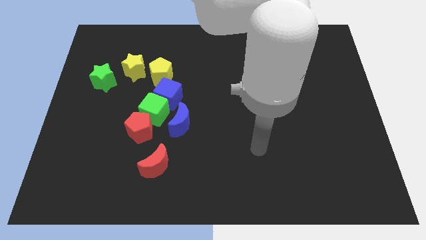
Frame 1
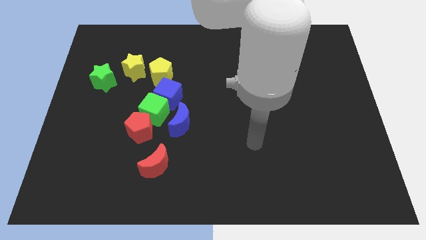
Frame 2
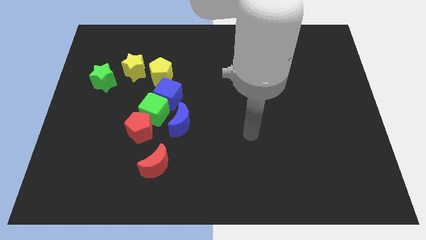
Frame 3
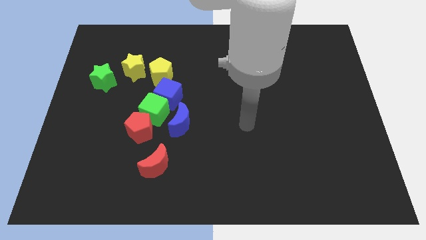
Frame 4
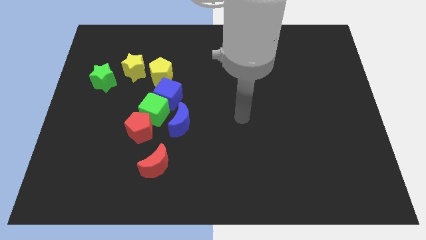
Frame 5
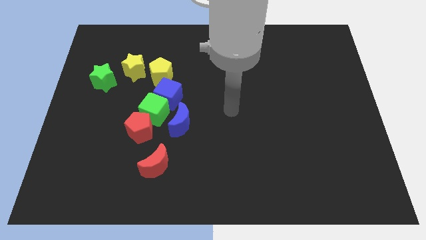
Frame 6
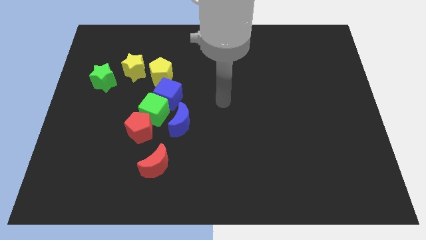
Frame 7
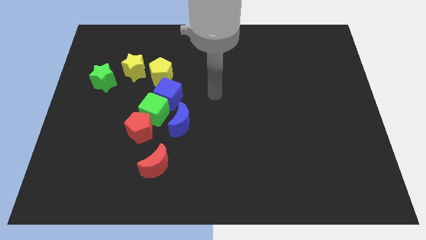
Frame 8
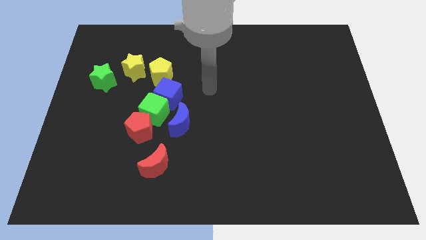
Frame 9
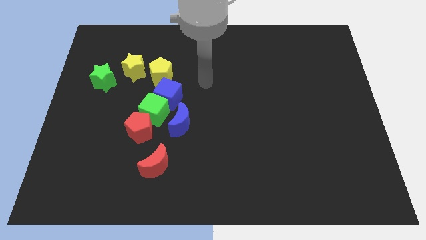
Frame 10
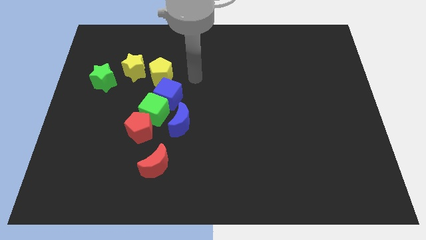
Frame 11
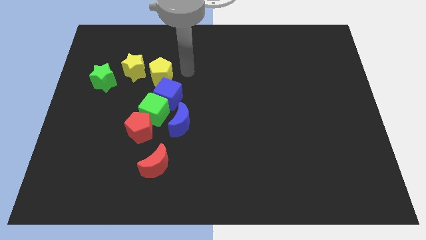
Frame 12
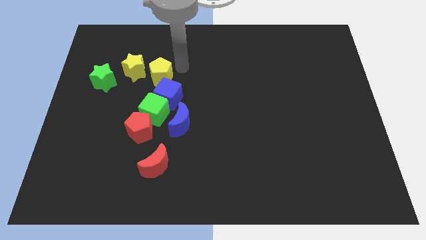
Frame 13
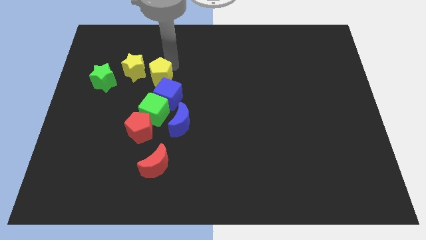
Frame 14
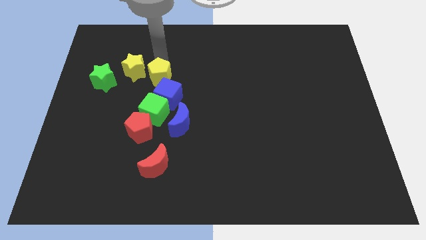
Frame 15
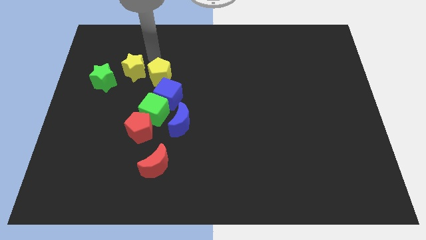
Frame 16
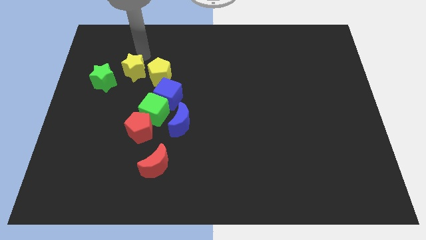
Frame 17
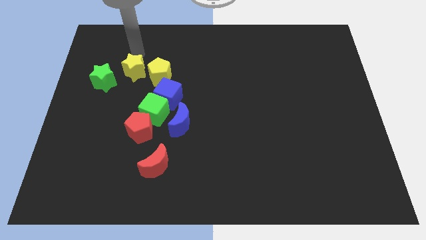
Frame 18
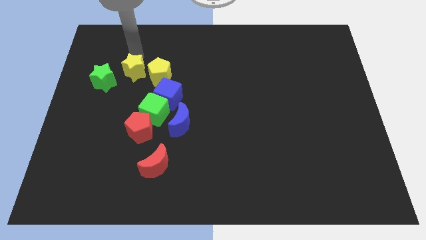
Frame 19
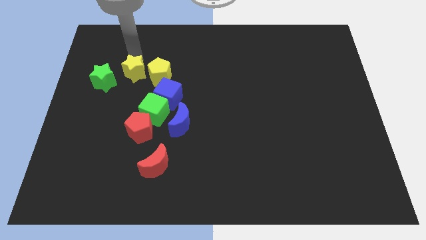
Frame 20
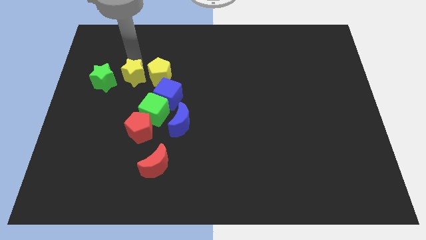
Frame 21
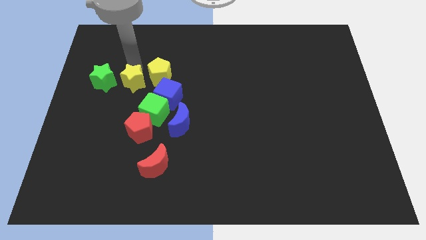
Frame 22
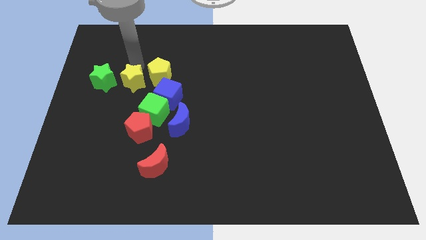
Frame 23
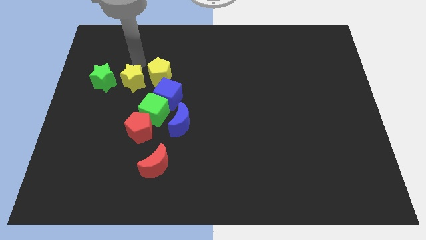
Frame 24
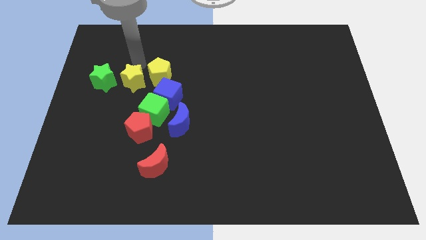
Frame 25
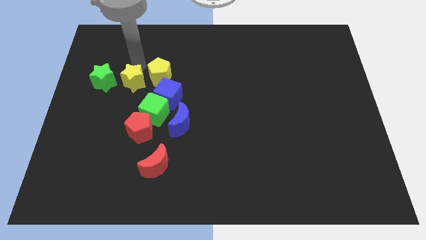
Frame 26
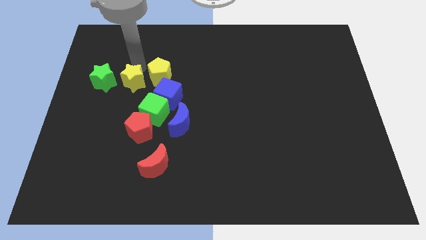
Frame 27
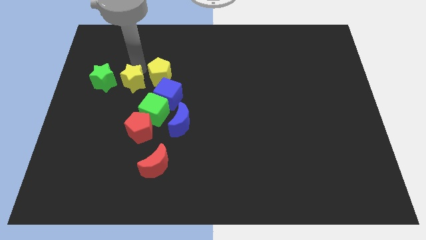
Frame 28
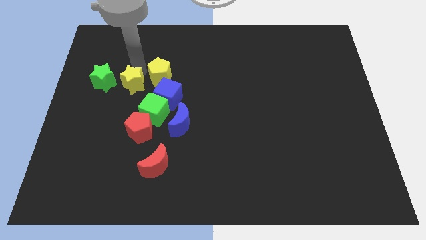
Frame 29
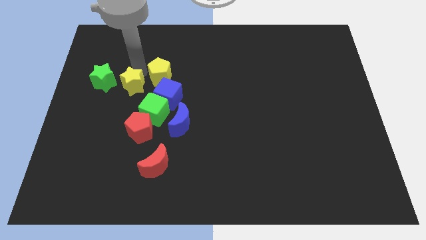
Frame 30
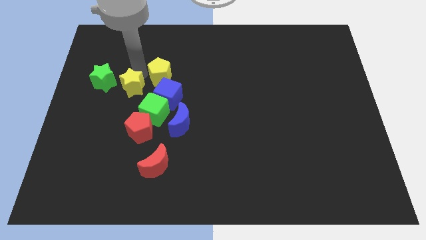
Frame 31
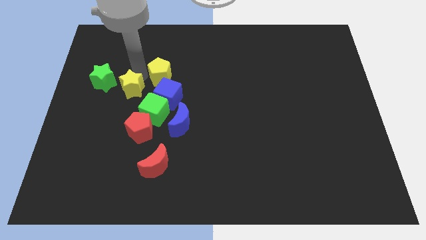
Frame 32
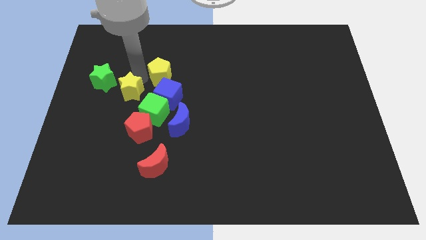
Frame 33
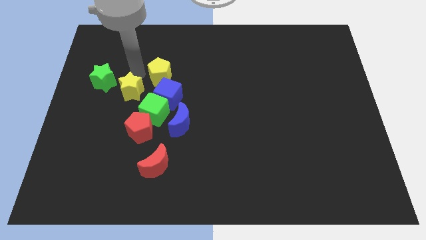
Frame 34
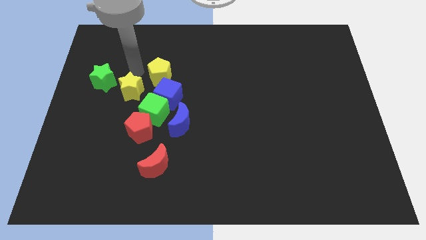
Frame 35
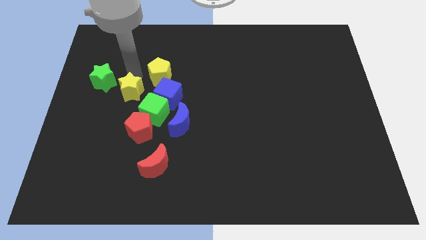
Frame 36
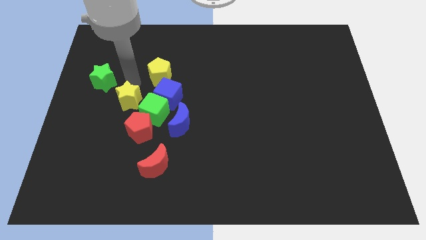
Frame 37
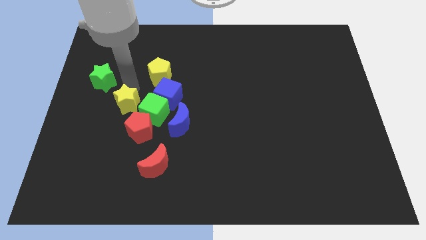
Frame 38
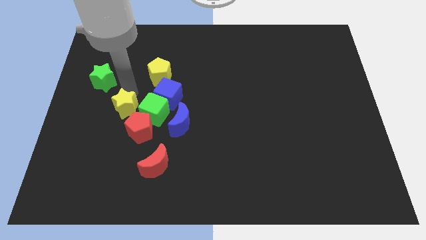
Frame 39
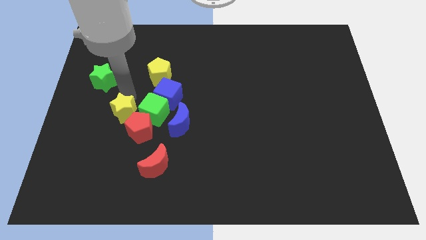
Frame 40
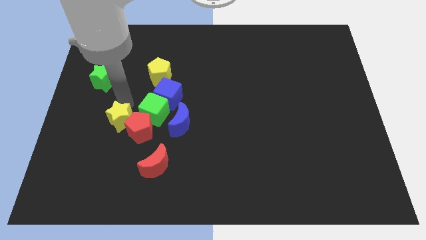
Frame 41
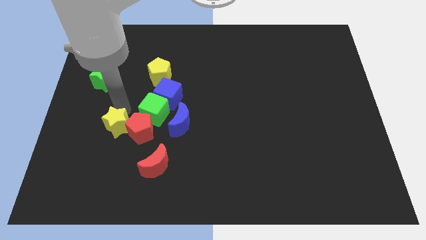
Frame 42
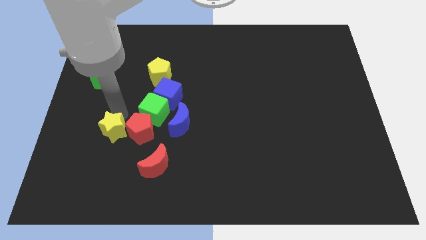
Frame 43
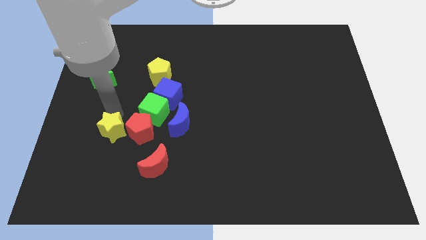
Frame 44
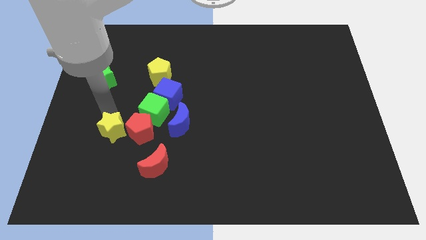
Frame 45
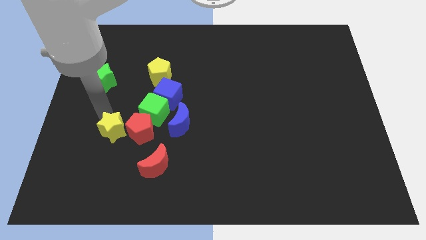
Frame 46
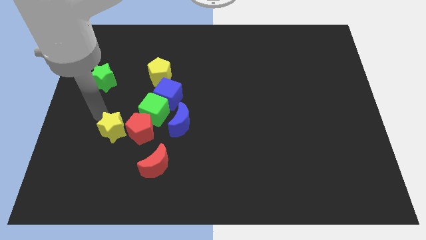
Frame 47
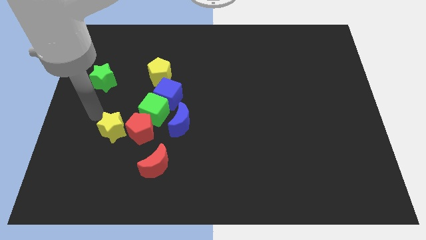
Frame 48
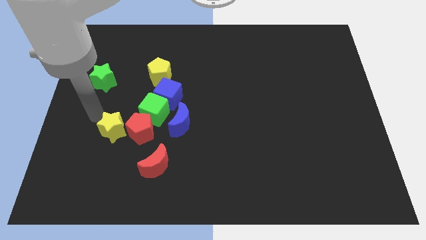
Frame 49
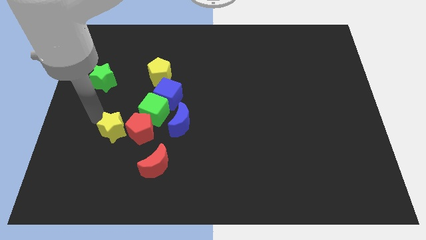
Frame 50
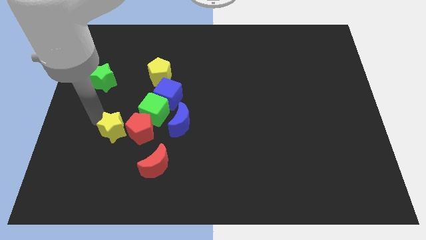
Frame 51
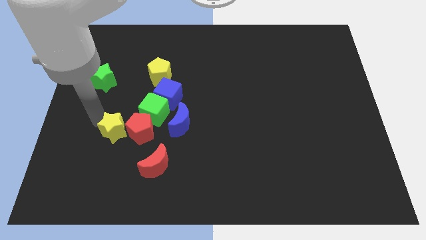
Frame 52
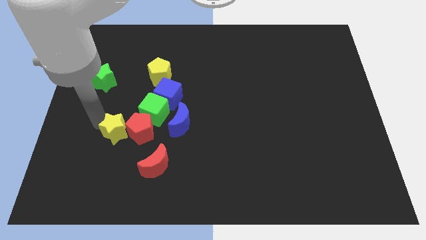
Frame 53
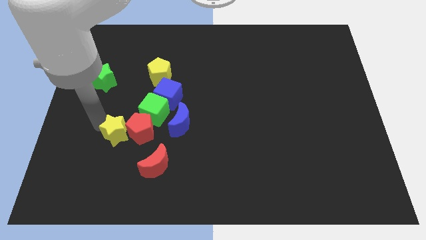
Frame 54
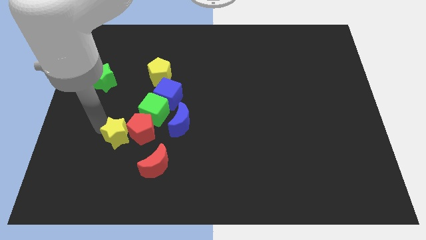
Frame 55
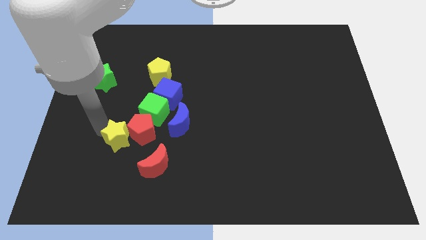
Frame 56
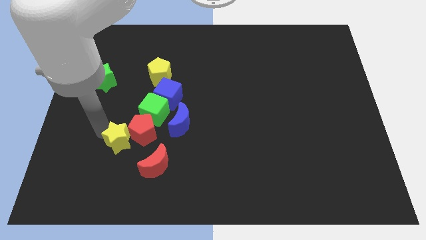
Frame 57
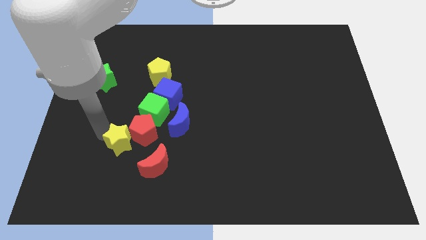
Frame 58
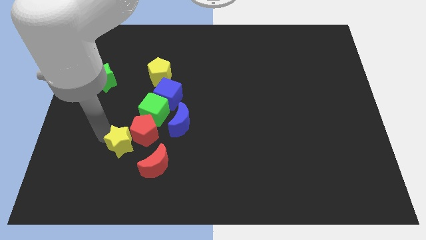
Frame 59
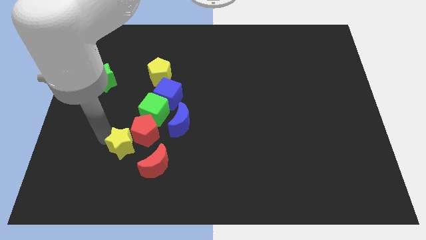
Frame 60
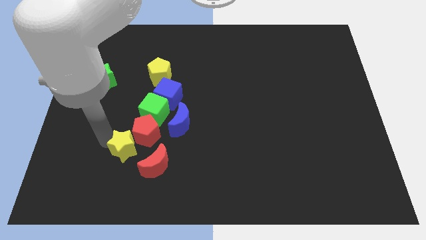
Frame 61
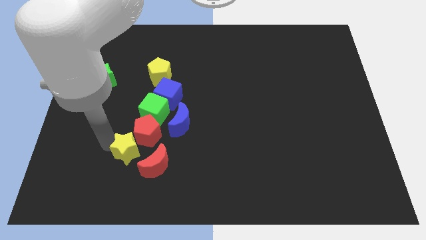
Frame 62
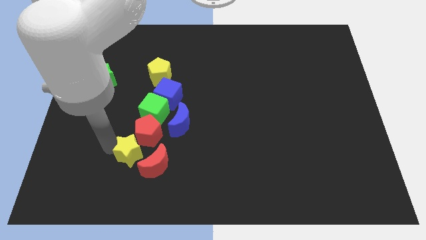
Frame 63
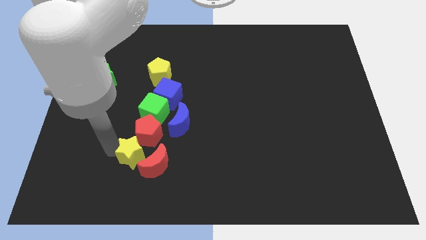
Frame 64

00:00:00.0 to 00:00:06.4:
put the yellow star to the red moon
